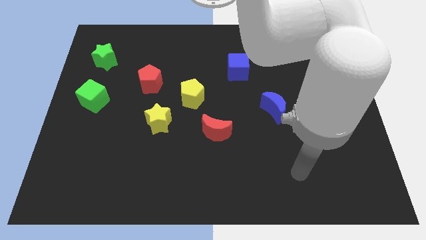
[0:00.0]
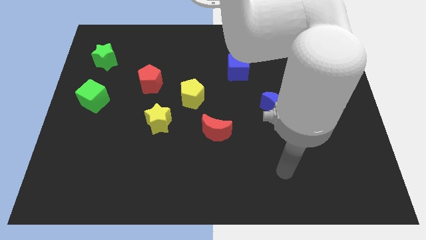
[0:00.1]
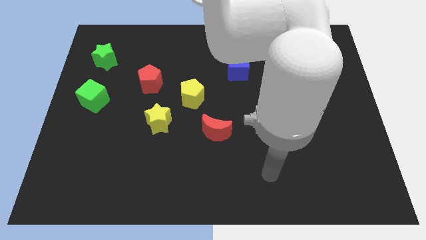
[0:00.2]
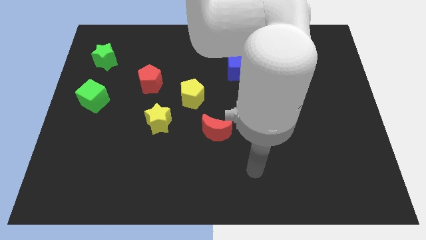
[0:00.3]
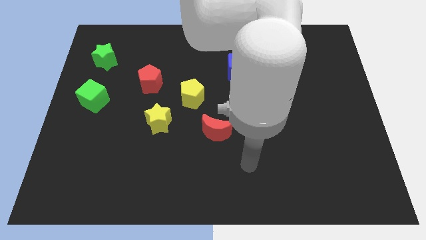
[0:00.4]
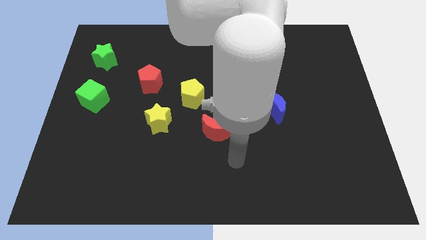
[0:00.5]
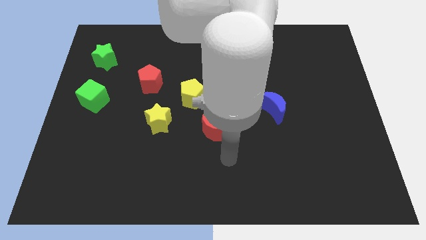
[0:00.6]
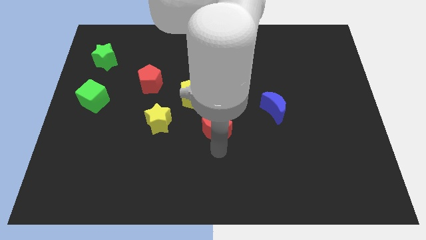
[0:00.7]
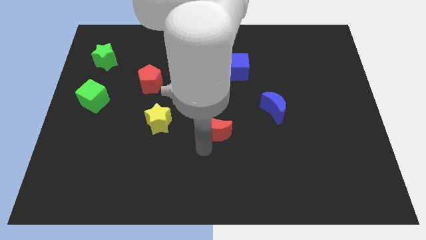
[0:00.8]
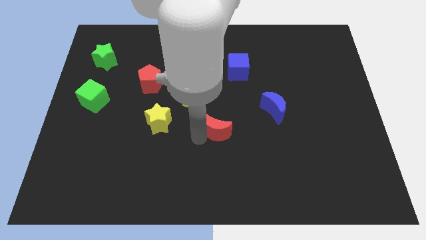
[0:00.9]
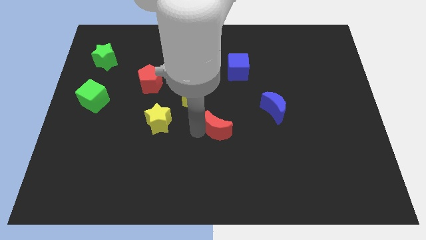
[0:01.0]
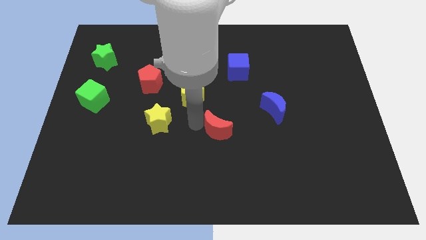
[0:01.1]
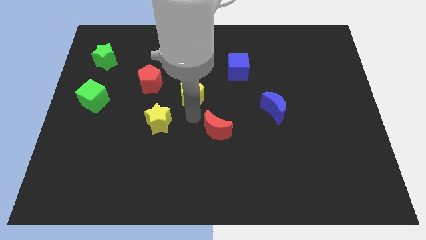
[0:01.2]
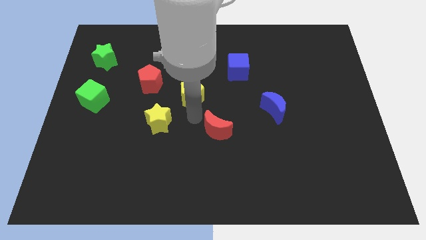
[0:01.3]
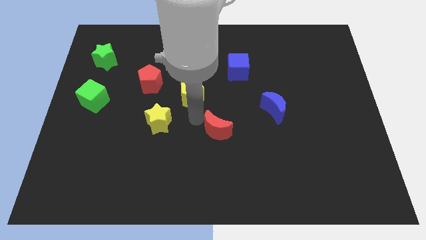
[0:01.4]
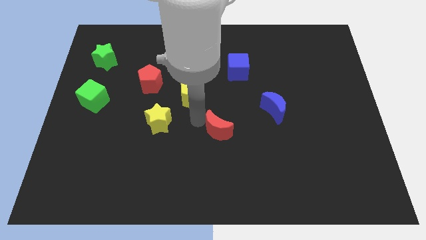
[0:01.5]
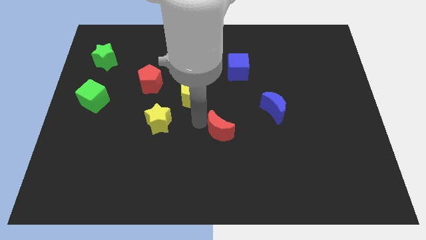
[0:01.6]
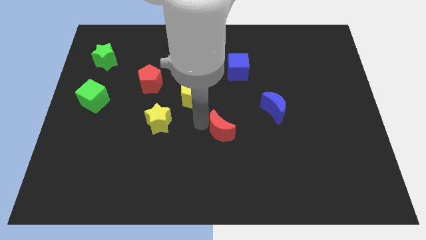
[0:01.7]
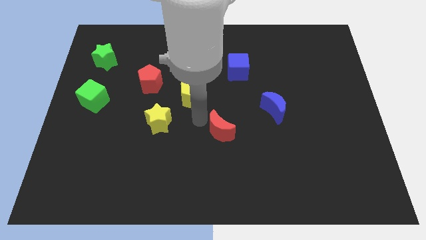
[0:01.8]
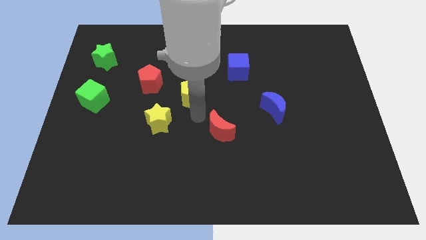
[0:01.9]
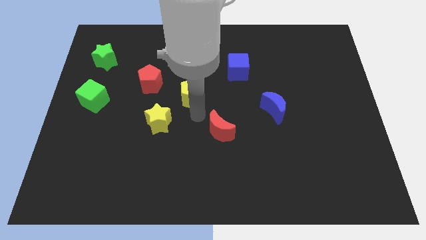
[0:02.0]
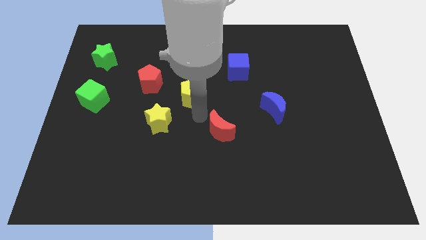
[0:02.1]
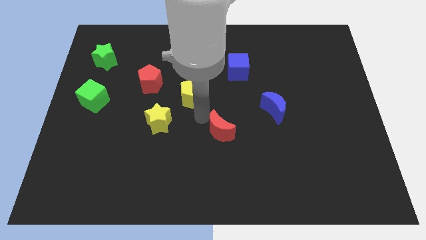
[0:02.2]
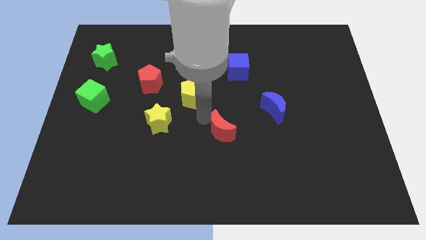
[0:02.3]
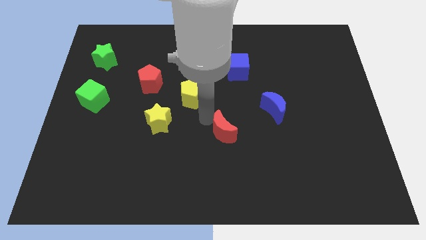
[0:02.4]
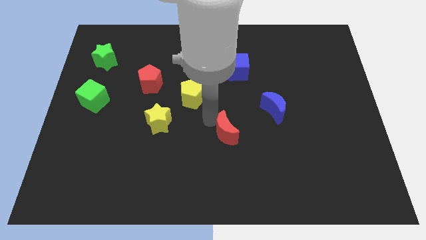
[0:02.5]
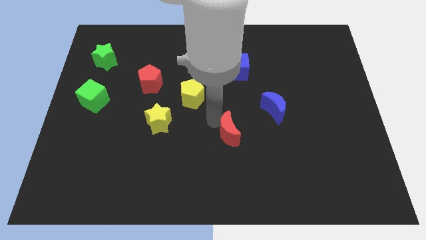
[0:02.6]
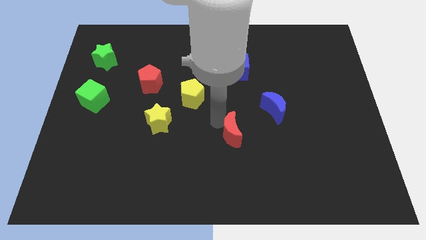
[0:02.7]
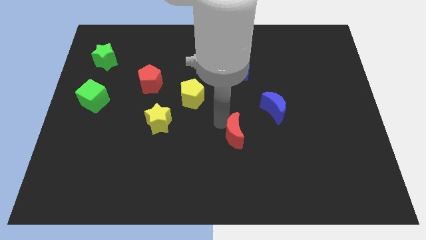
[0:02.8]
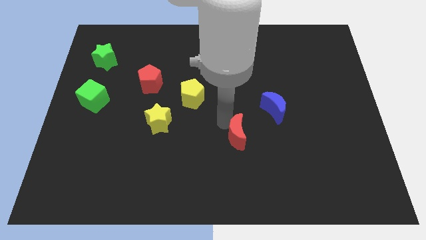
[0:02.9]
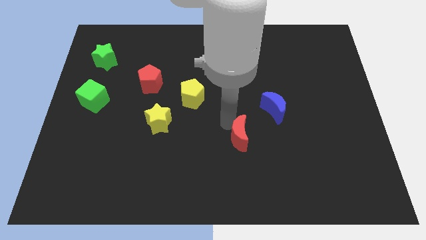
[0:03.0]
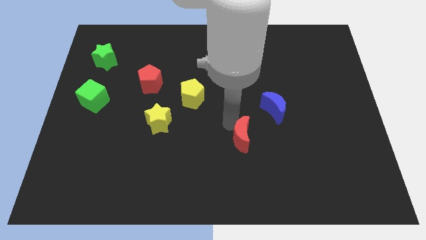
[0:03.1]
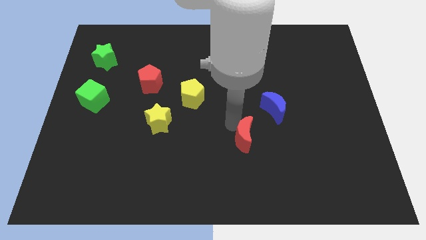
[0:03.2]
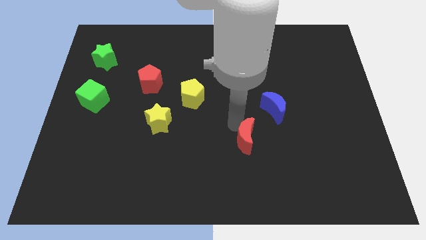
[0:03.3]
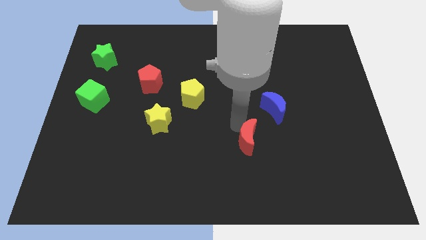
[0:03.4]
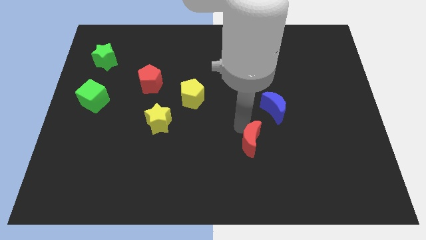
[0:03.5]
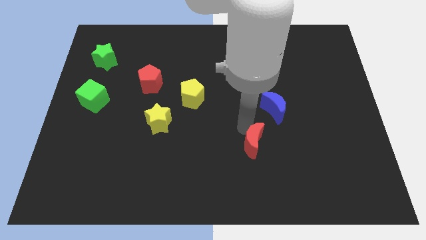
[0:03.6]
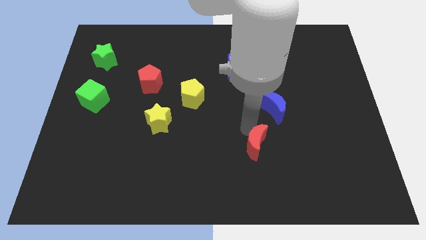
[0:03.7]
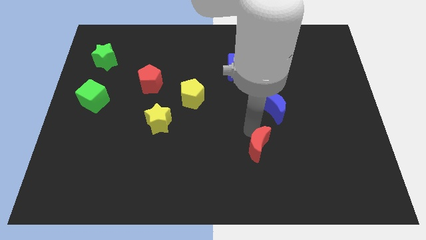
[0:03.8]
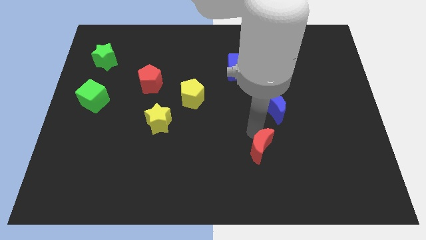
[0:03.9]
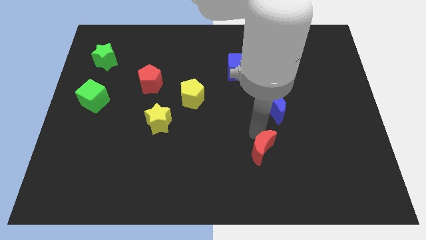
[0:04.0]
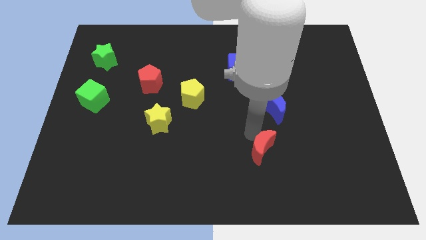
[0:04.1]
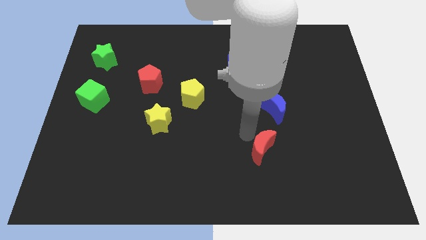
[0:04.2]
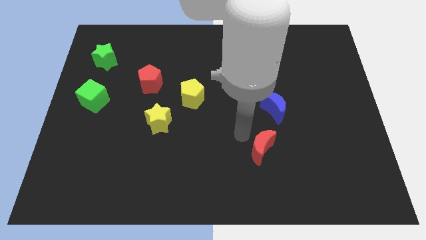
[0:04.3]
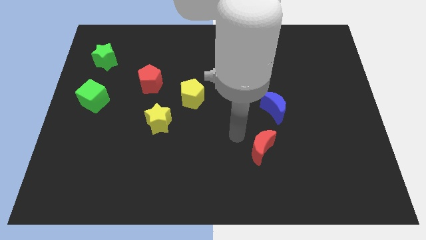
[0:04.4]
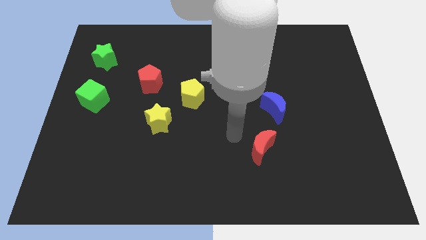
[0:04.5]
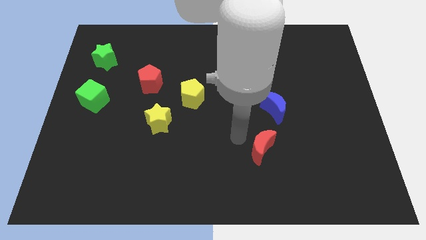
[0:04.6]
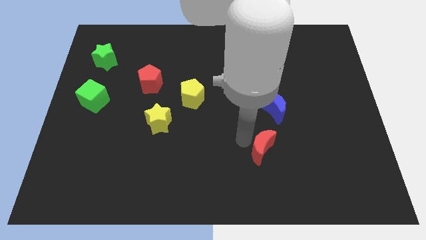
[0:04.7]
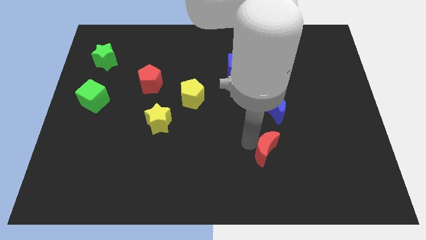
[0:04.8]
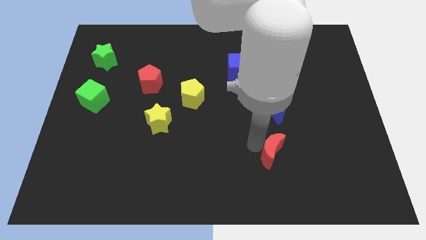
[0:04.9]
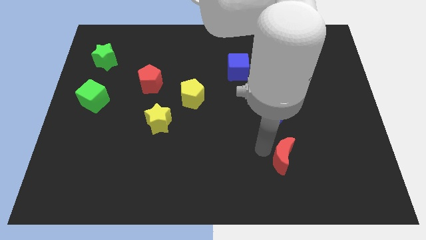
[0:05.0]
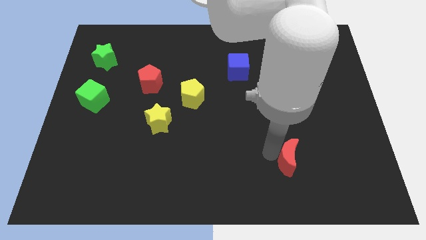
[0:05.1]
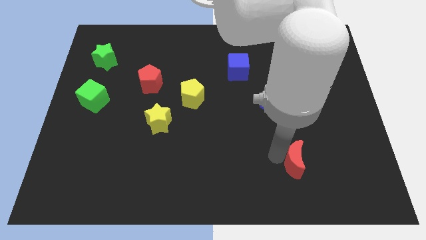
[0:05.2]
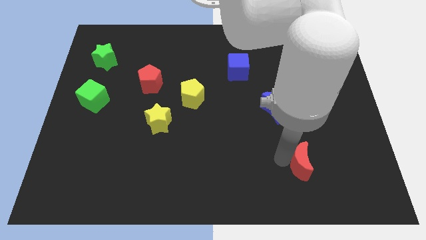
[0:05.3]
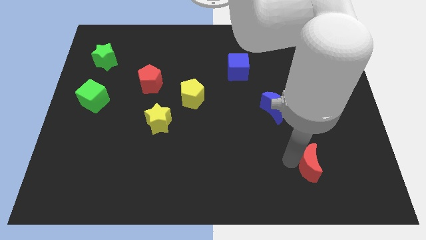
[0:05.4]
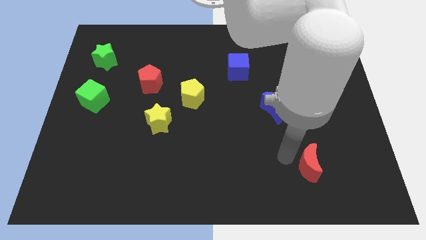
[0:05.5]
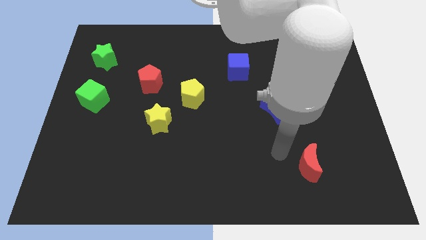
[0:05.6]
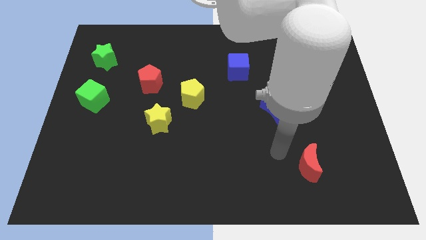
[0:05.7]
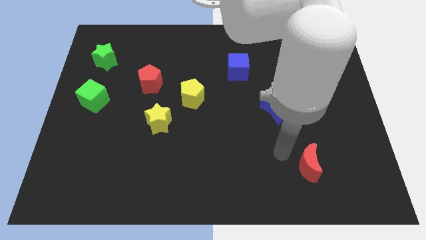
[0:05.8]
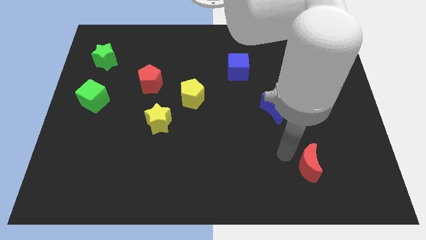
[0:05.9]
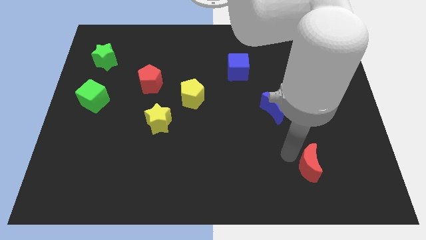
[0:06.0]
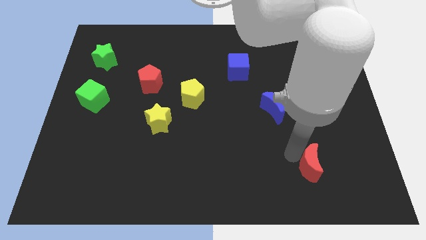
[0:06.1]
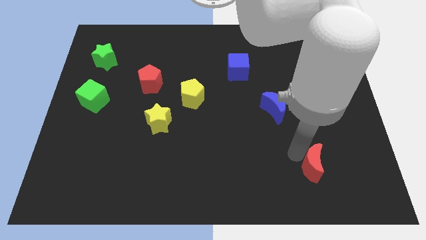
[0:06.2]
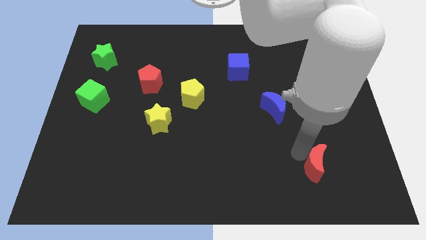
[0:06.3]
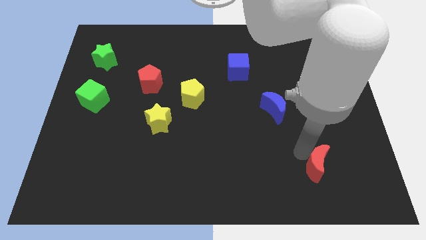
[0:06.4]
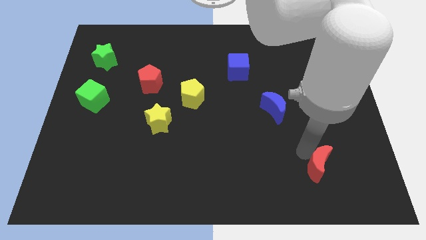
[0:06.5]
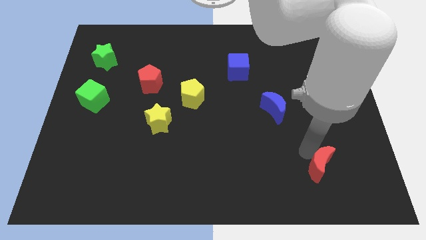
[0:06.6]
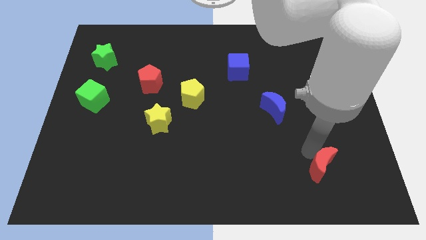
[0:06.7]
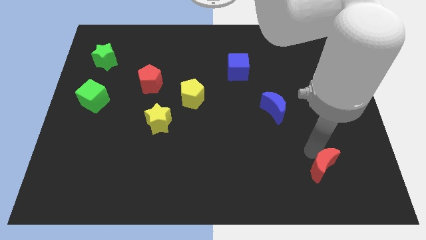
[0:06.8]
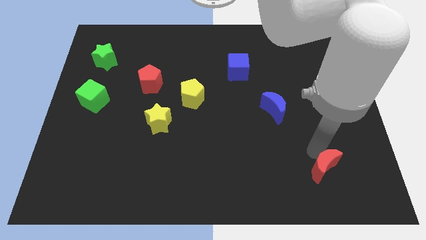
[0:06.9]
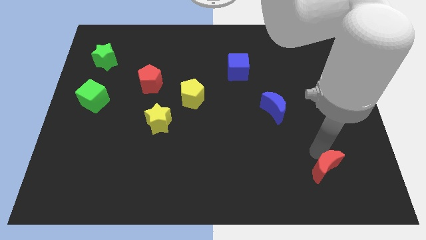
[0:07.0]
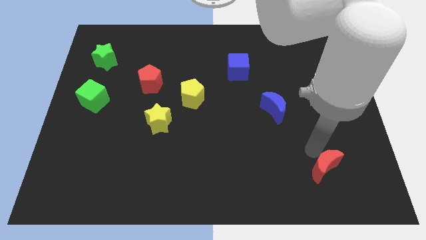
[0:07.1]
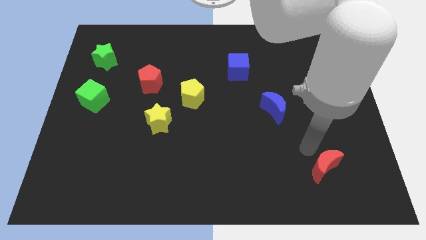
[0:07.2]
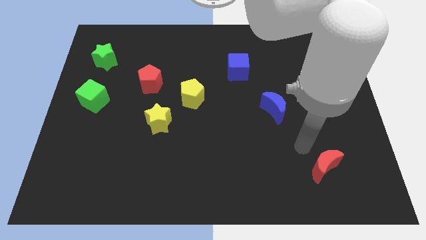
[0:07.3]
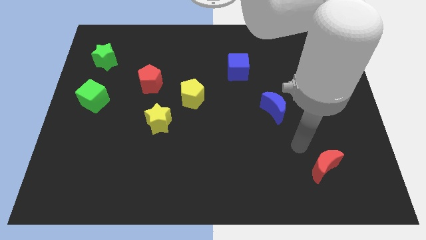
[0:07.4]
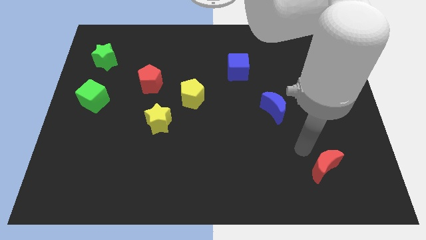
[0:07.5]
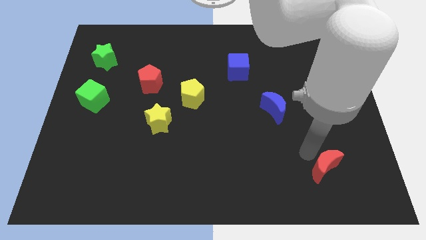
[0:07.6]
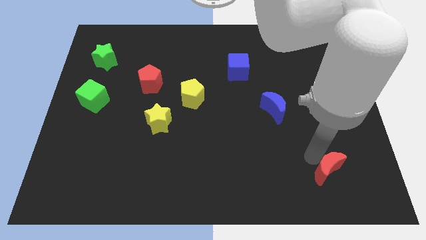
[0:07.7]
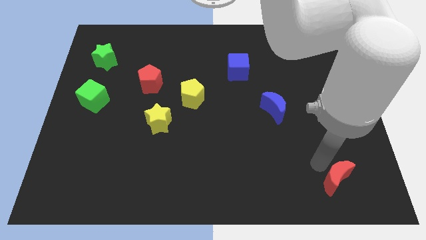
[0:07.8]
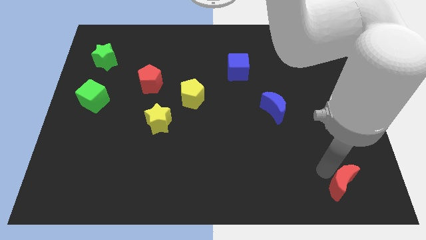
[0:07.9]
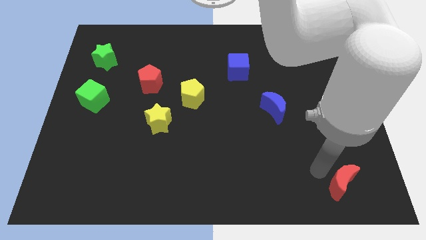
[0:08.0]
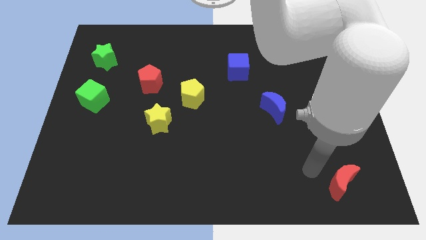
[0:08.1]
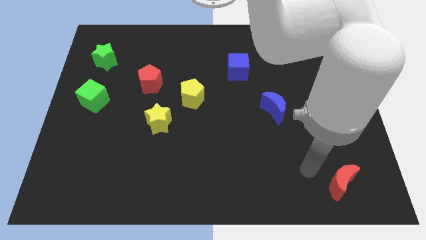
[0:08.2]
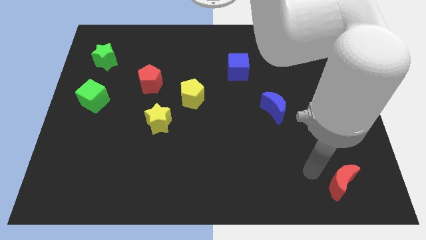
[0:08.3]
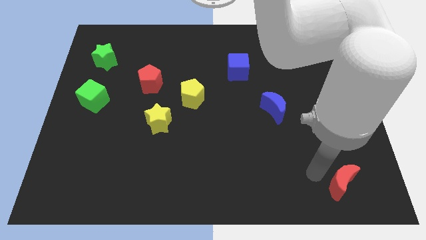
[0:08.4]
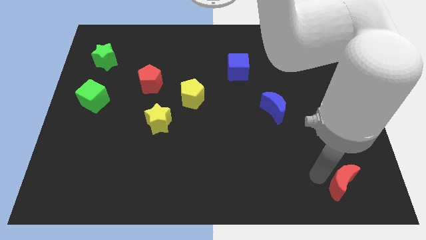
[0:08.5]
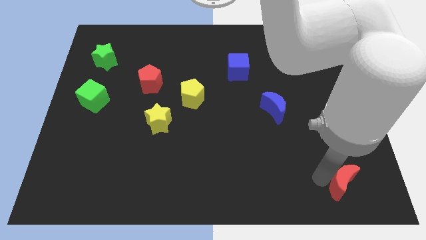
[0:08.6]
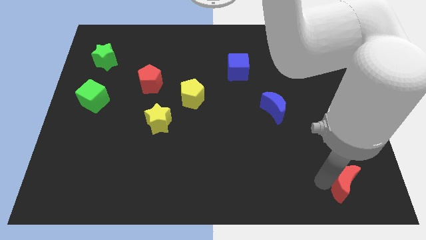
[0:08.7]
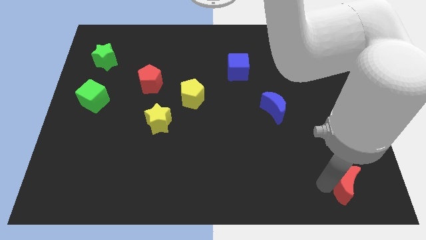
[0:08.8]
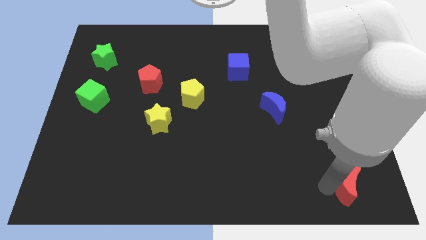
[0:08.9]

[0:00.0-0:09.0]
put the red moon to the bottom right of the board
